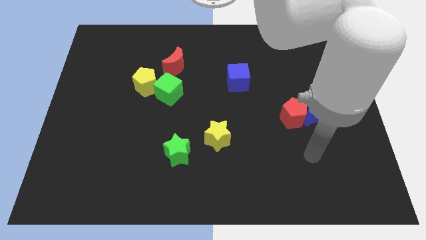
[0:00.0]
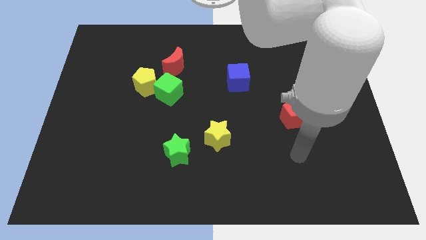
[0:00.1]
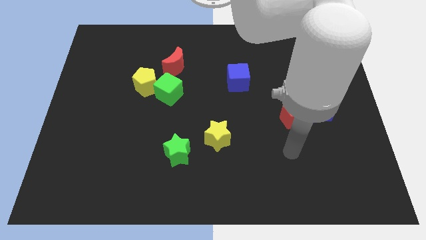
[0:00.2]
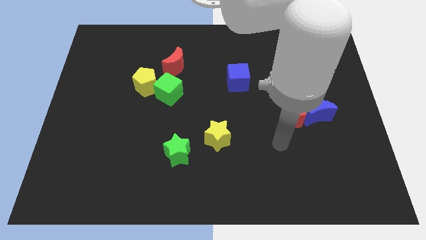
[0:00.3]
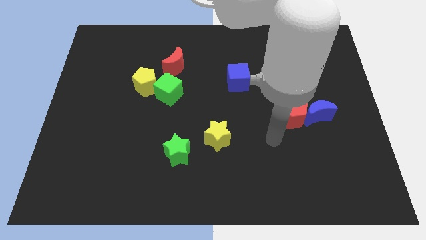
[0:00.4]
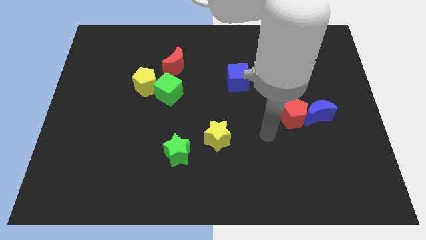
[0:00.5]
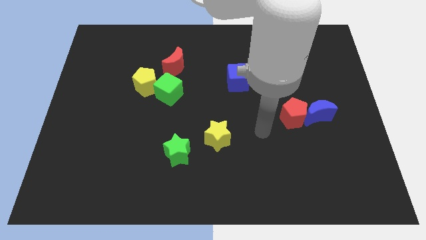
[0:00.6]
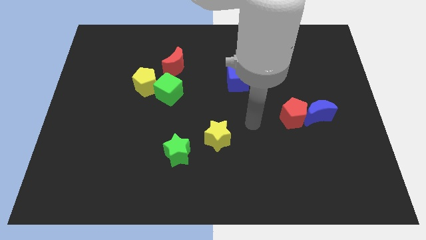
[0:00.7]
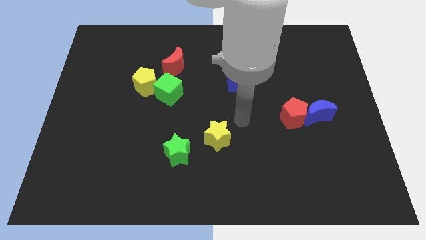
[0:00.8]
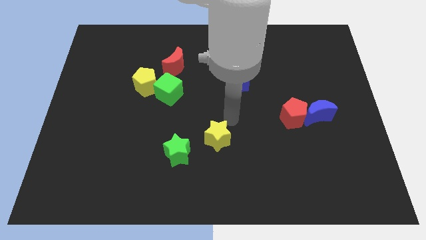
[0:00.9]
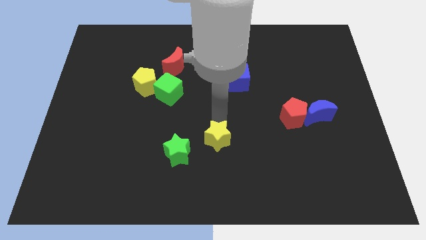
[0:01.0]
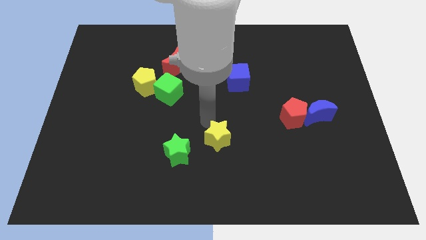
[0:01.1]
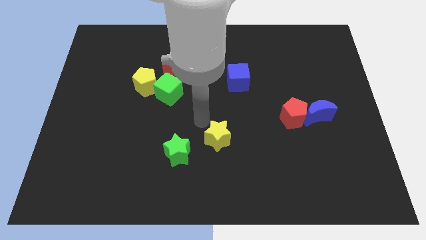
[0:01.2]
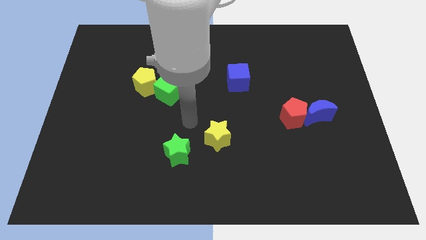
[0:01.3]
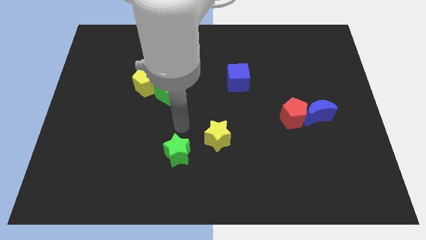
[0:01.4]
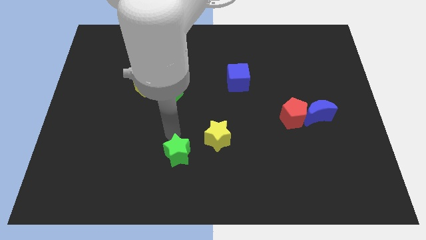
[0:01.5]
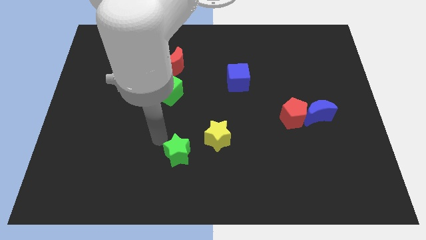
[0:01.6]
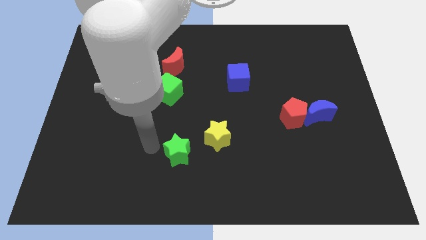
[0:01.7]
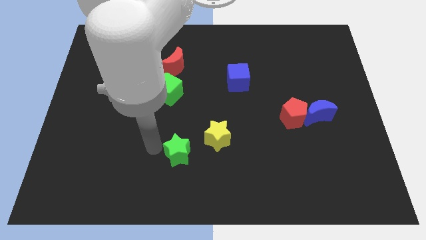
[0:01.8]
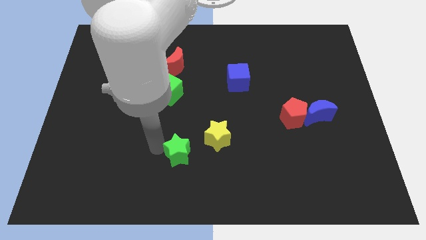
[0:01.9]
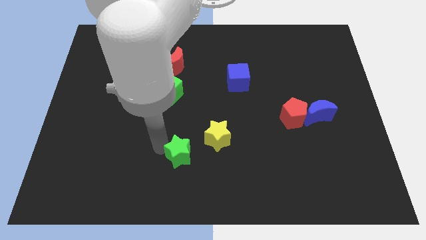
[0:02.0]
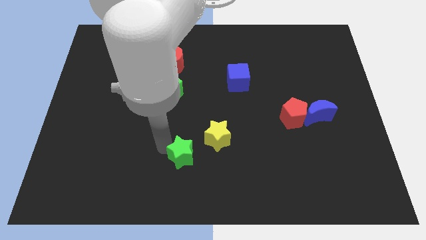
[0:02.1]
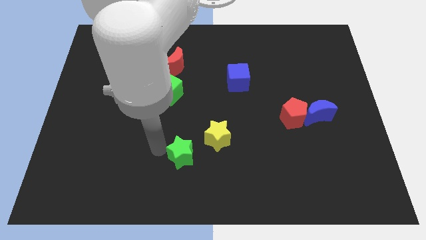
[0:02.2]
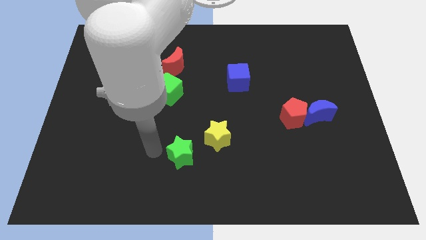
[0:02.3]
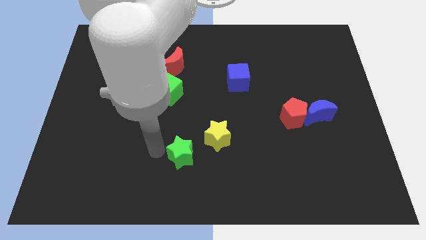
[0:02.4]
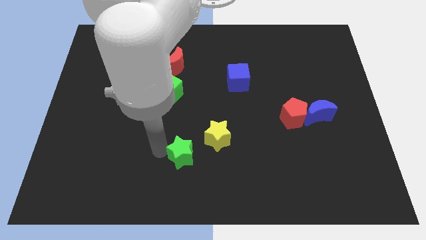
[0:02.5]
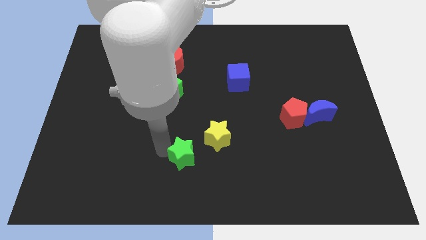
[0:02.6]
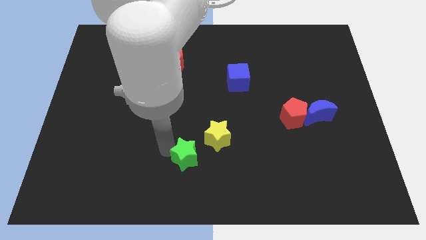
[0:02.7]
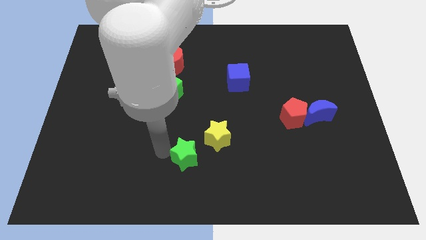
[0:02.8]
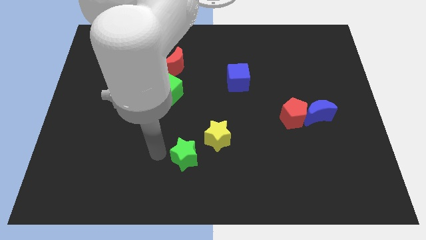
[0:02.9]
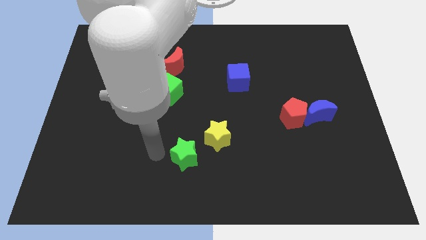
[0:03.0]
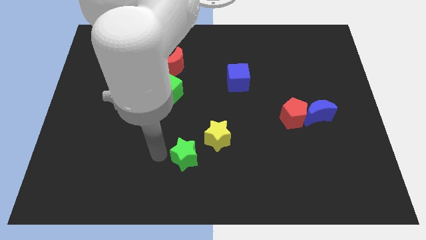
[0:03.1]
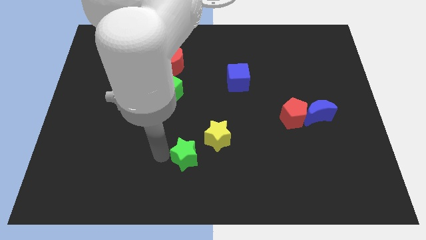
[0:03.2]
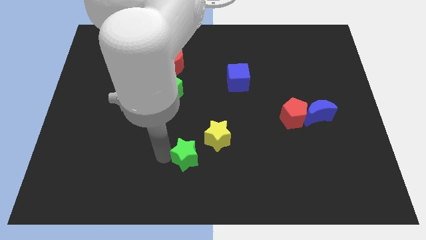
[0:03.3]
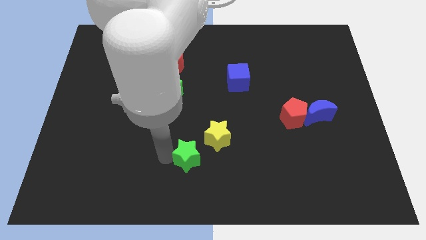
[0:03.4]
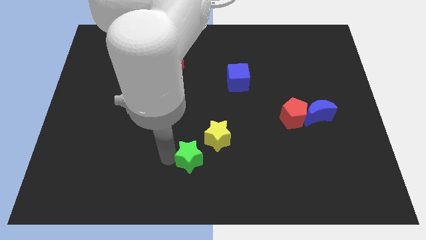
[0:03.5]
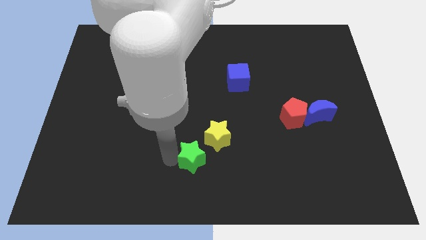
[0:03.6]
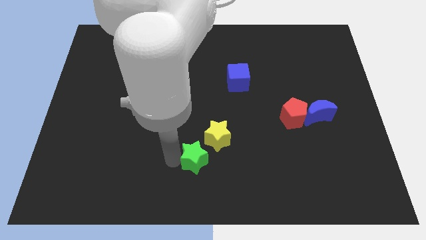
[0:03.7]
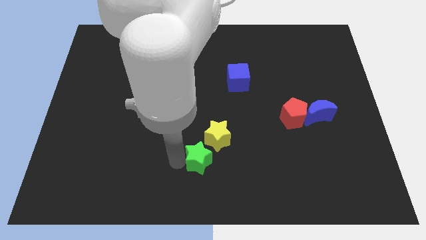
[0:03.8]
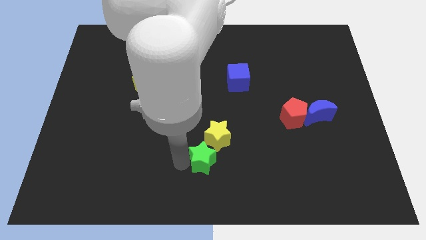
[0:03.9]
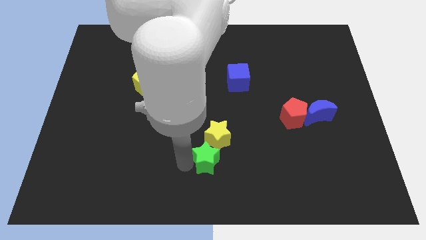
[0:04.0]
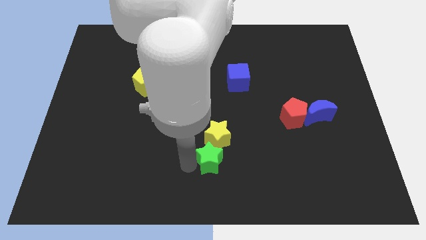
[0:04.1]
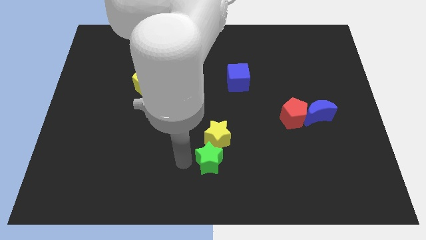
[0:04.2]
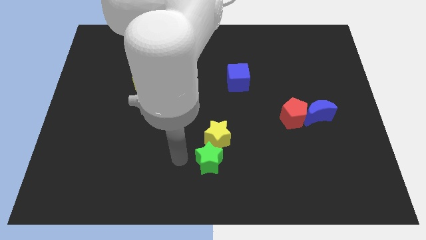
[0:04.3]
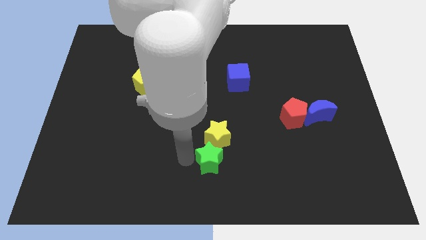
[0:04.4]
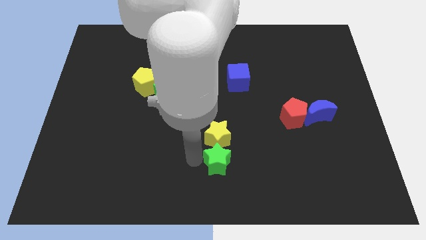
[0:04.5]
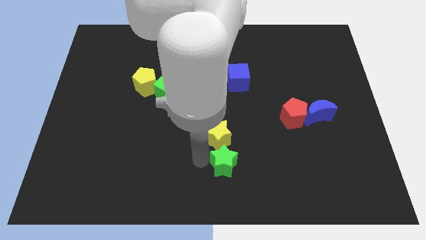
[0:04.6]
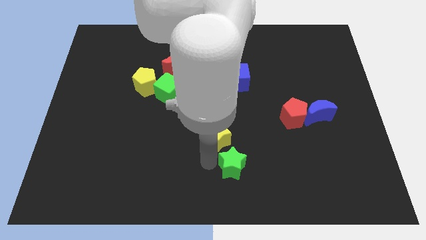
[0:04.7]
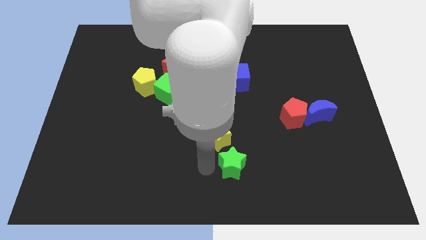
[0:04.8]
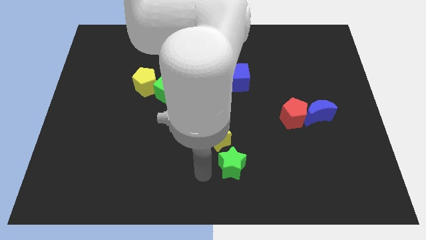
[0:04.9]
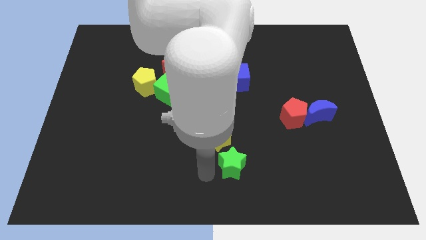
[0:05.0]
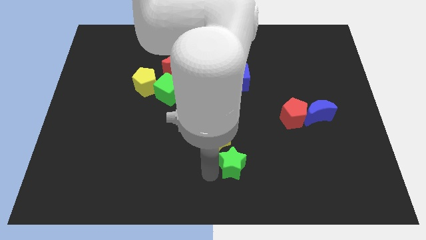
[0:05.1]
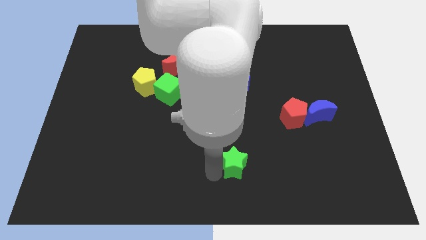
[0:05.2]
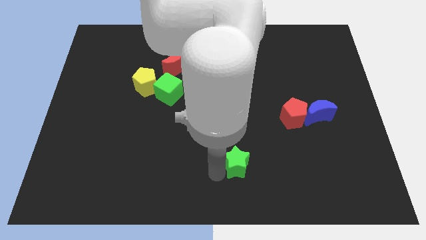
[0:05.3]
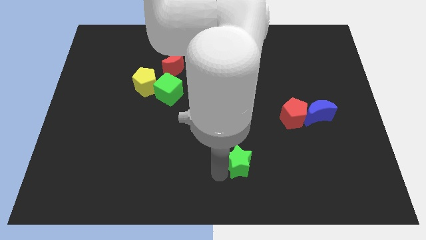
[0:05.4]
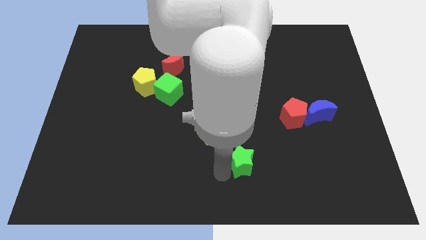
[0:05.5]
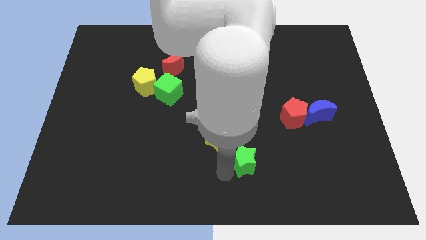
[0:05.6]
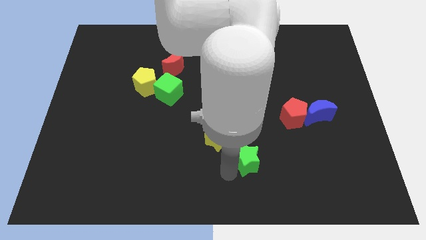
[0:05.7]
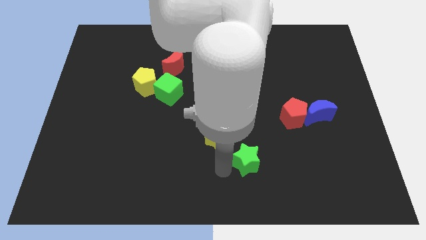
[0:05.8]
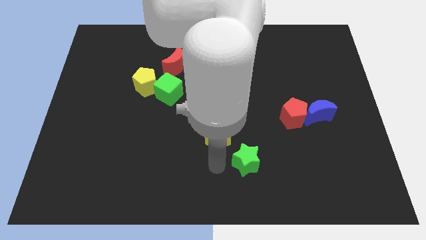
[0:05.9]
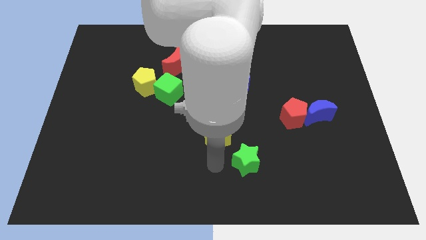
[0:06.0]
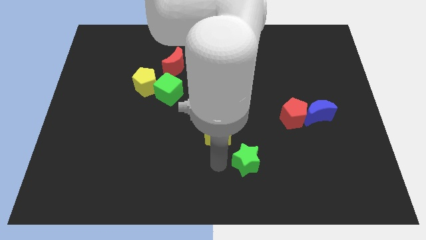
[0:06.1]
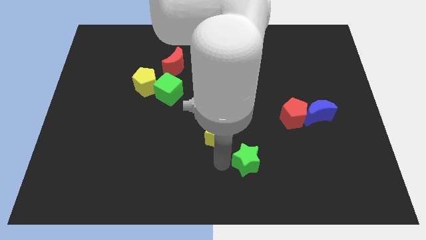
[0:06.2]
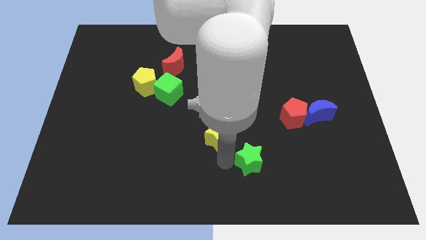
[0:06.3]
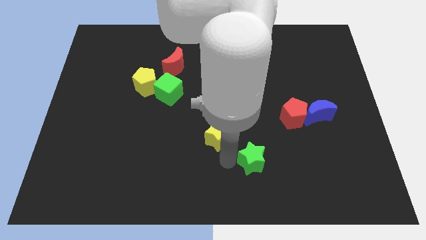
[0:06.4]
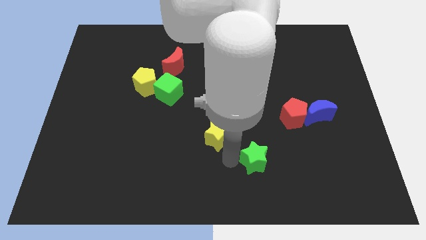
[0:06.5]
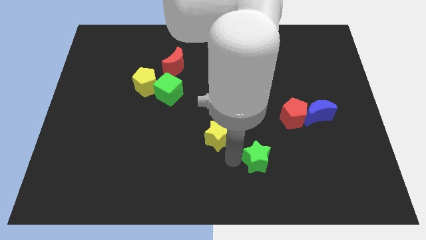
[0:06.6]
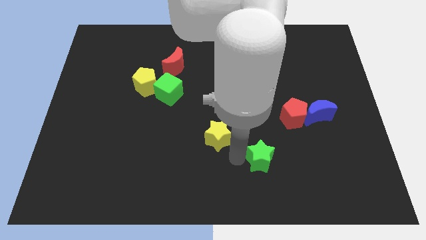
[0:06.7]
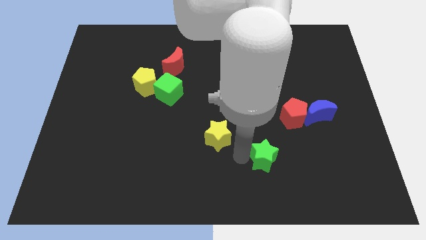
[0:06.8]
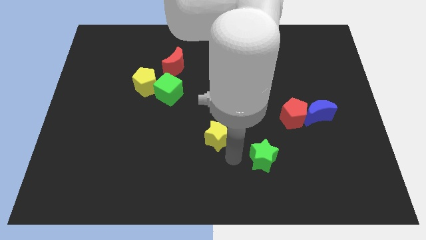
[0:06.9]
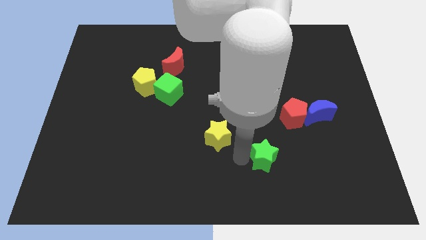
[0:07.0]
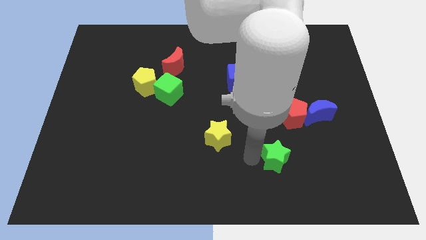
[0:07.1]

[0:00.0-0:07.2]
slide the green star to the right

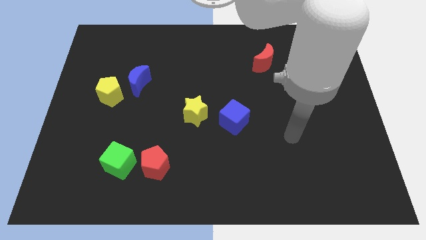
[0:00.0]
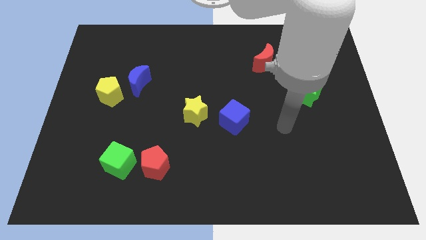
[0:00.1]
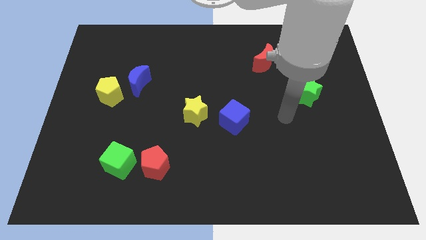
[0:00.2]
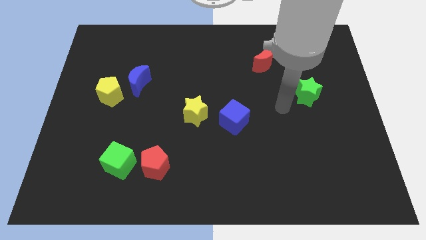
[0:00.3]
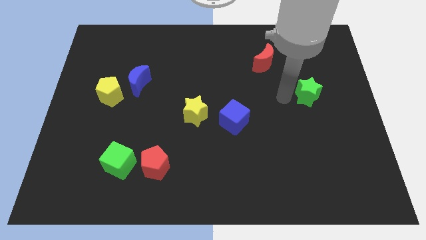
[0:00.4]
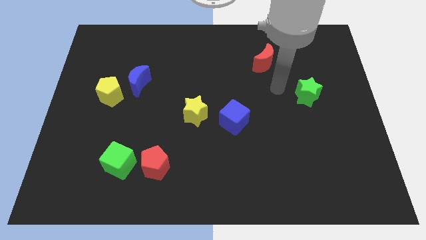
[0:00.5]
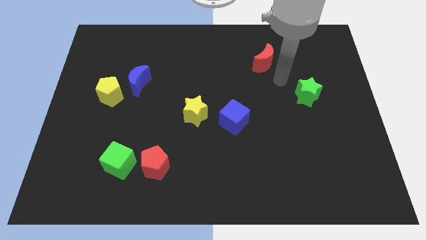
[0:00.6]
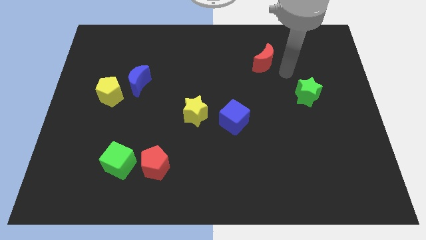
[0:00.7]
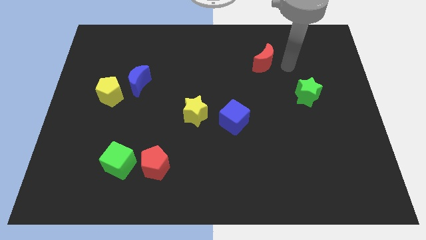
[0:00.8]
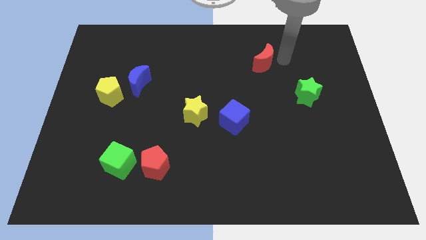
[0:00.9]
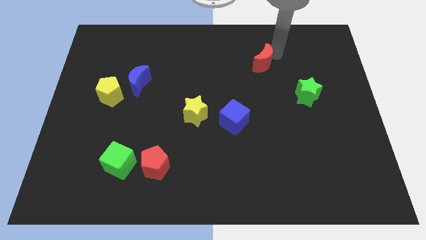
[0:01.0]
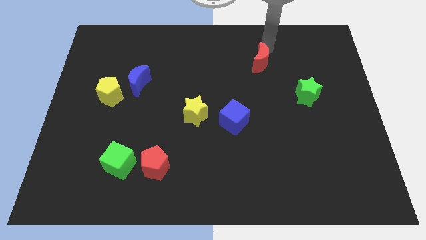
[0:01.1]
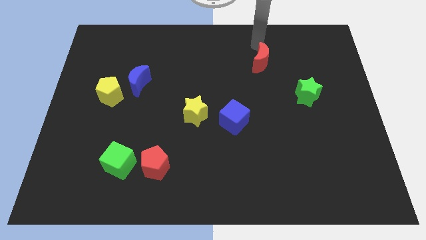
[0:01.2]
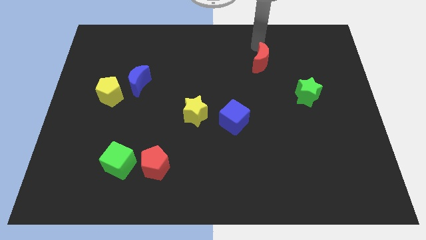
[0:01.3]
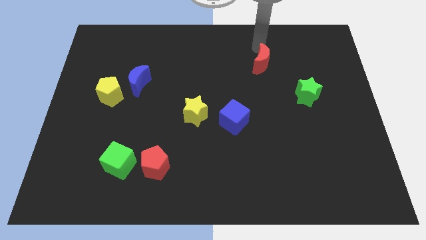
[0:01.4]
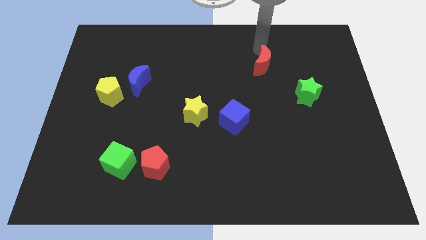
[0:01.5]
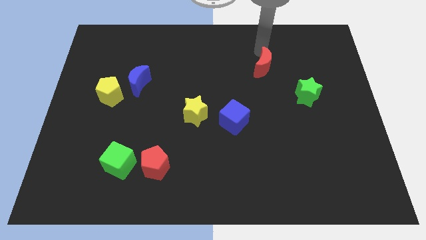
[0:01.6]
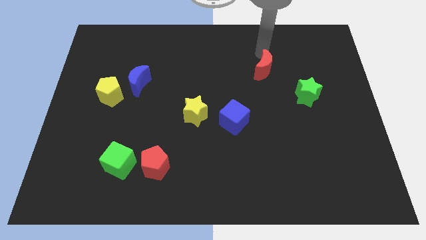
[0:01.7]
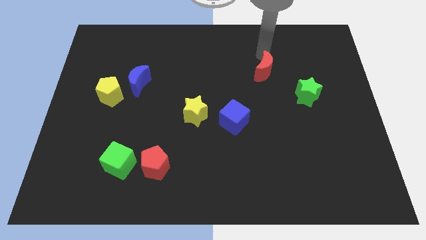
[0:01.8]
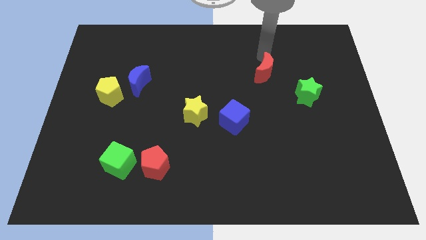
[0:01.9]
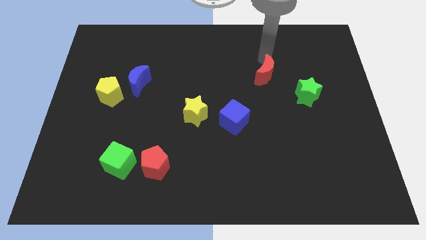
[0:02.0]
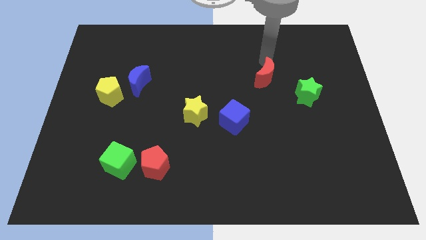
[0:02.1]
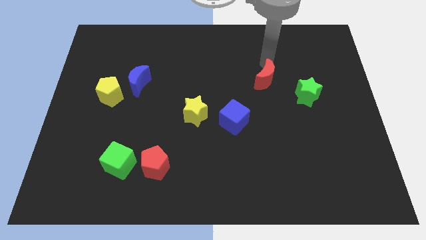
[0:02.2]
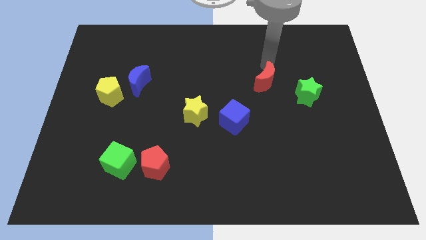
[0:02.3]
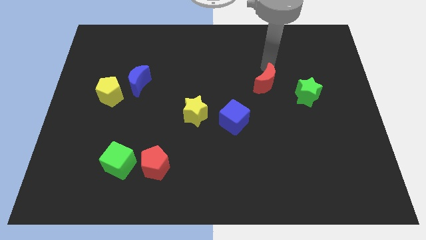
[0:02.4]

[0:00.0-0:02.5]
slide the red moon downwards a little bit
